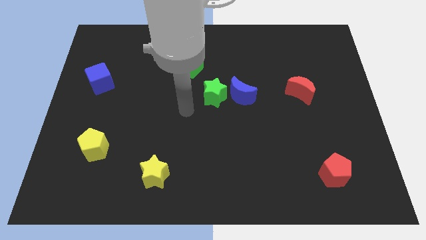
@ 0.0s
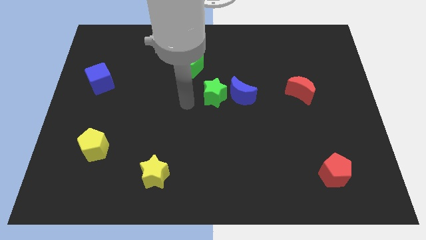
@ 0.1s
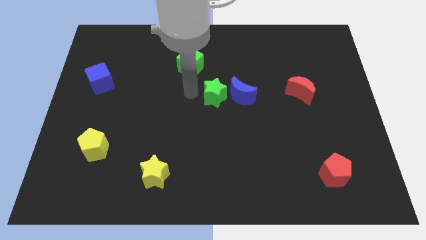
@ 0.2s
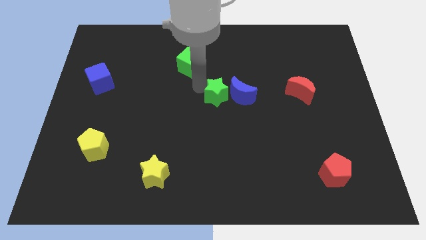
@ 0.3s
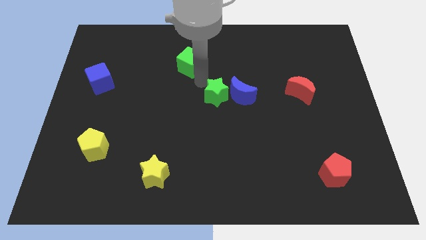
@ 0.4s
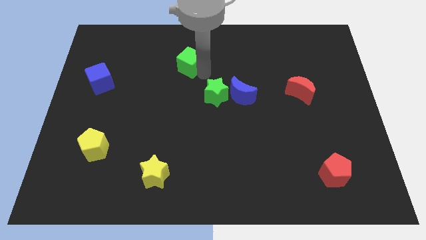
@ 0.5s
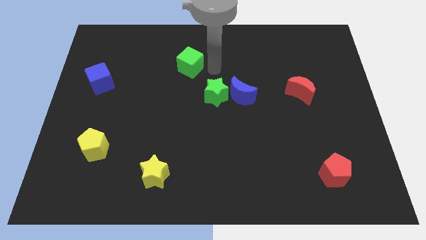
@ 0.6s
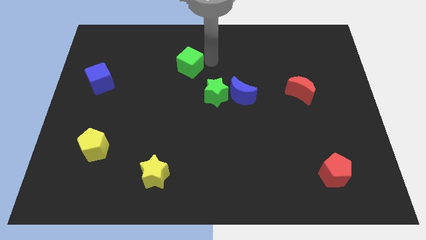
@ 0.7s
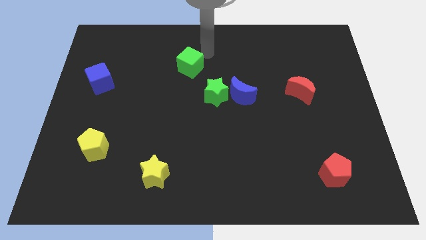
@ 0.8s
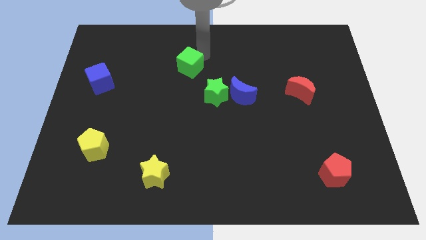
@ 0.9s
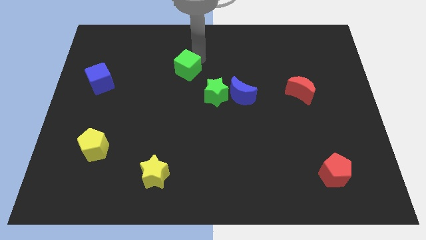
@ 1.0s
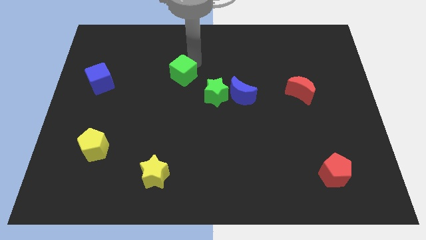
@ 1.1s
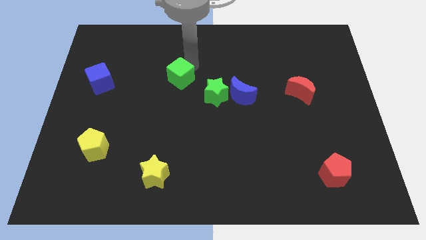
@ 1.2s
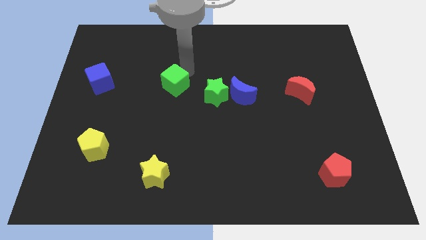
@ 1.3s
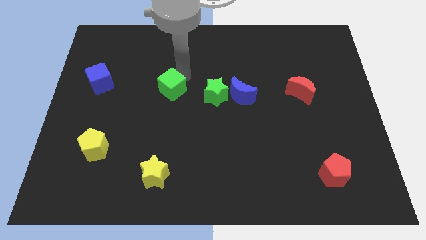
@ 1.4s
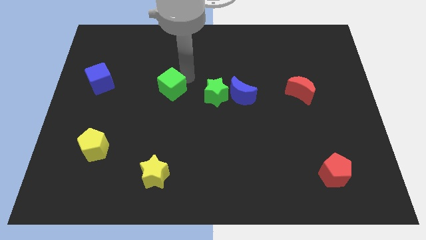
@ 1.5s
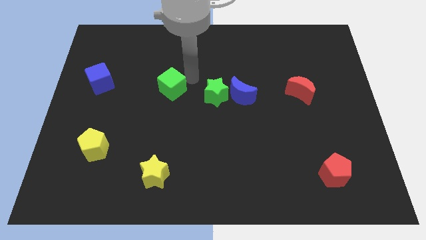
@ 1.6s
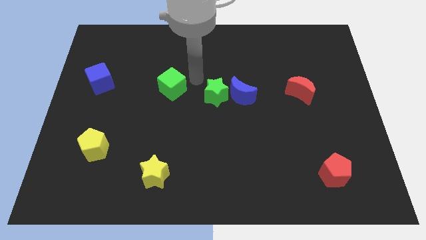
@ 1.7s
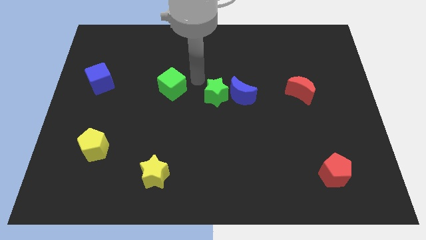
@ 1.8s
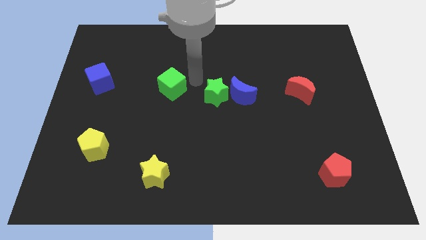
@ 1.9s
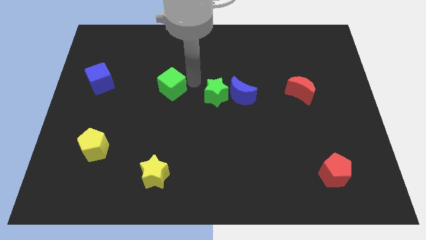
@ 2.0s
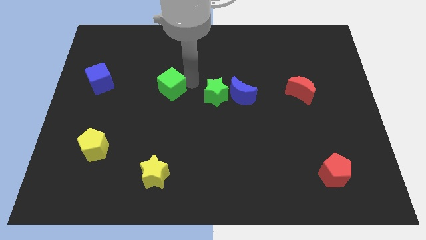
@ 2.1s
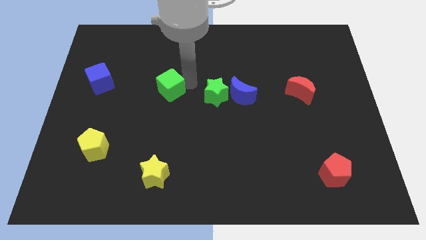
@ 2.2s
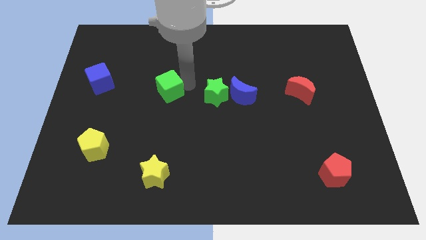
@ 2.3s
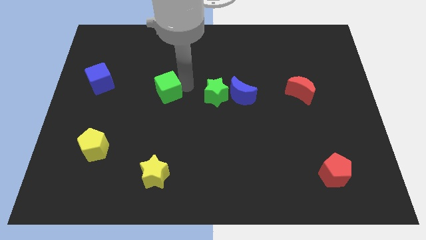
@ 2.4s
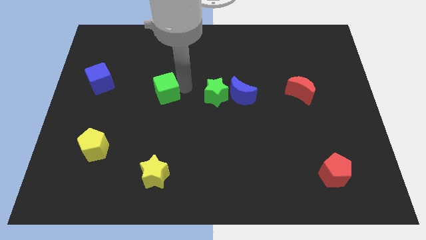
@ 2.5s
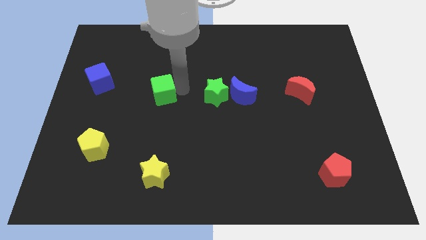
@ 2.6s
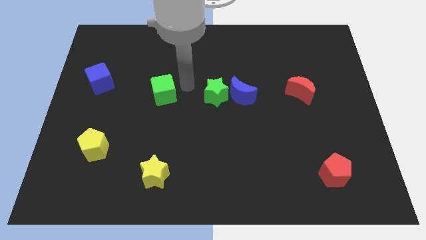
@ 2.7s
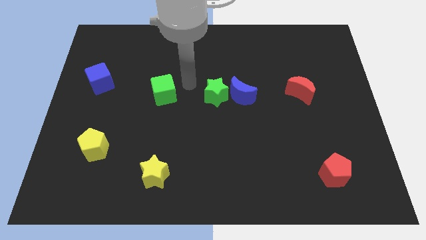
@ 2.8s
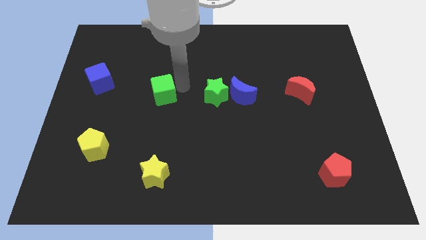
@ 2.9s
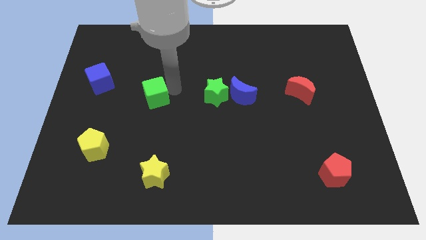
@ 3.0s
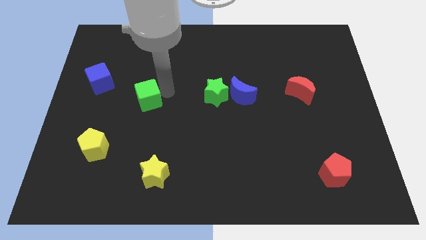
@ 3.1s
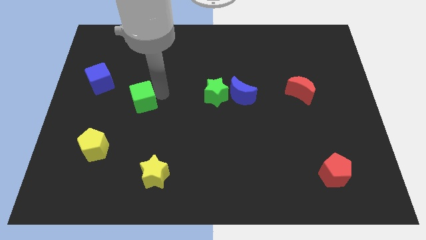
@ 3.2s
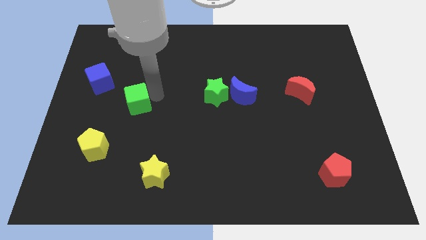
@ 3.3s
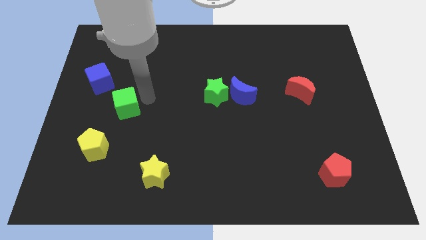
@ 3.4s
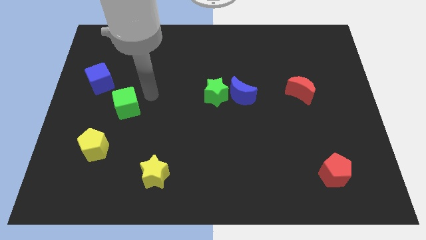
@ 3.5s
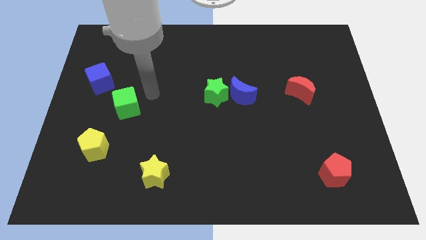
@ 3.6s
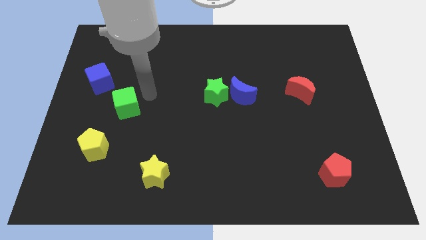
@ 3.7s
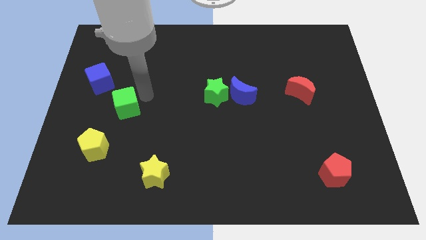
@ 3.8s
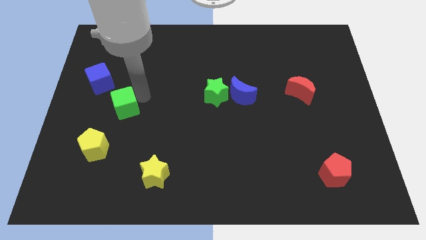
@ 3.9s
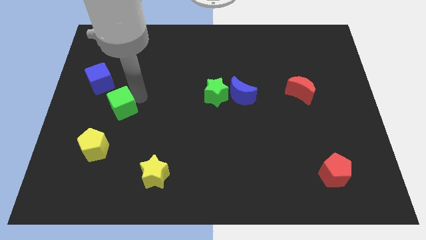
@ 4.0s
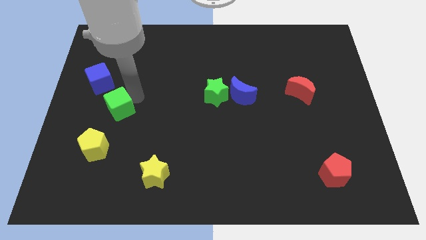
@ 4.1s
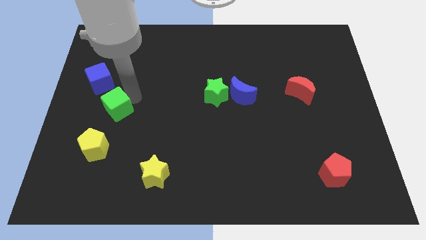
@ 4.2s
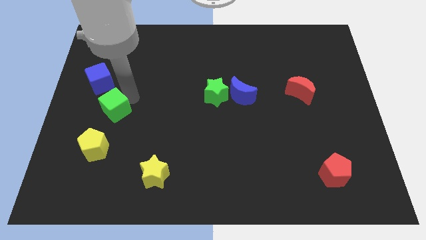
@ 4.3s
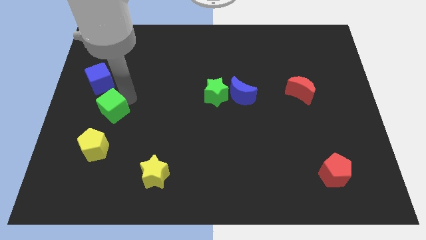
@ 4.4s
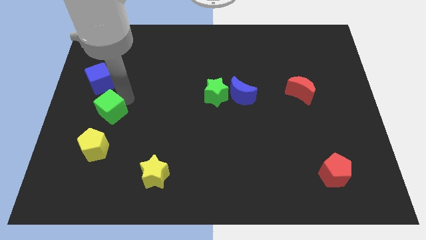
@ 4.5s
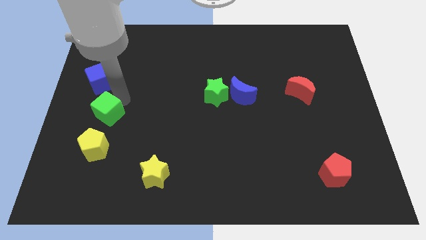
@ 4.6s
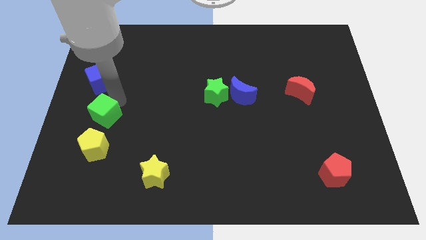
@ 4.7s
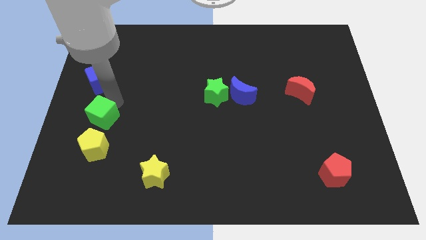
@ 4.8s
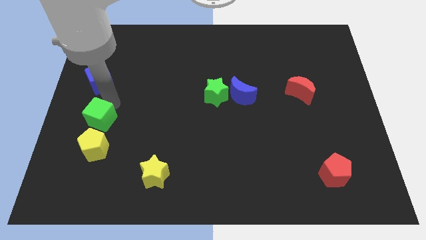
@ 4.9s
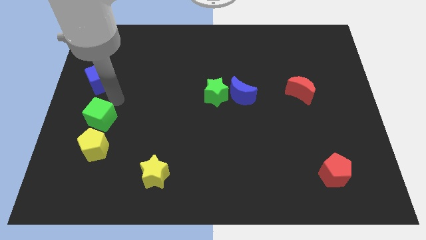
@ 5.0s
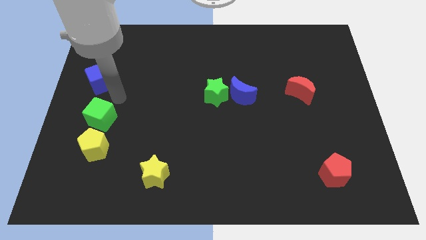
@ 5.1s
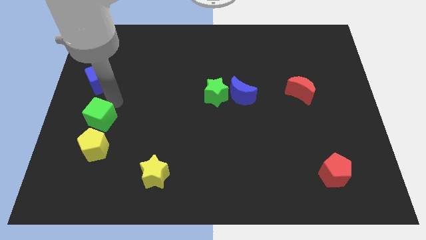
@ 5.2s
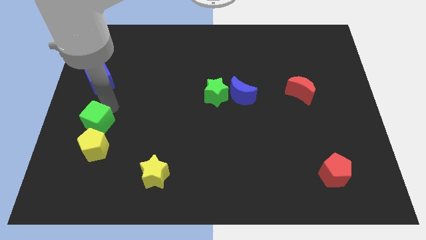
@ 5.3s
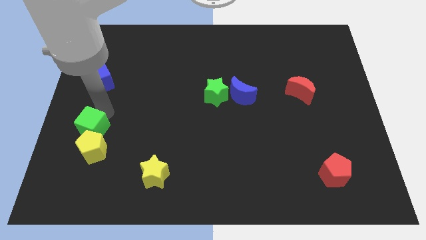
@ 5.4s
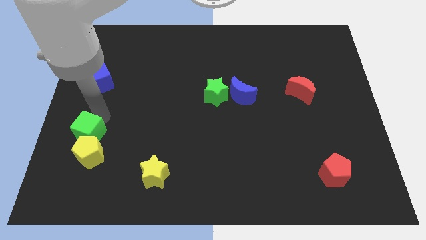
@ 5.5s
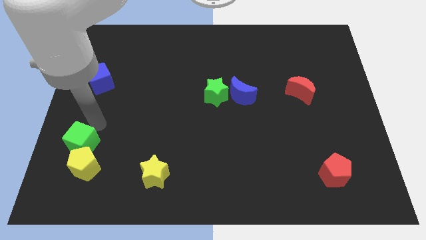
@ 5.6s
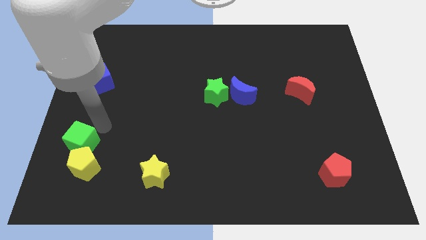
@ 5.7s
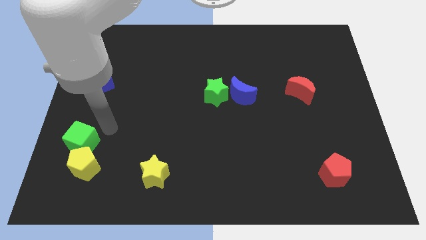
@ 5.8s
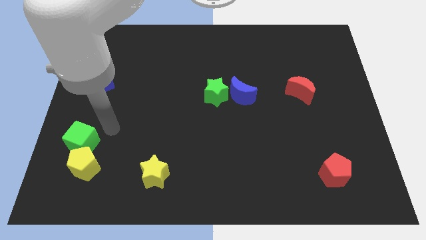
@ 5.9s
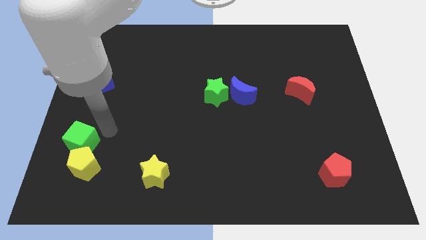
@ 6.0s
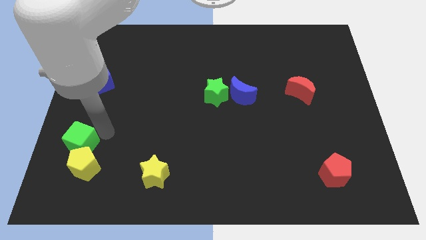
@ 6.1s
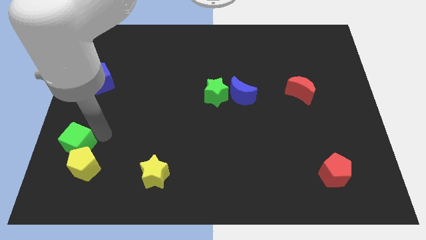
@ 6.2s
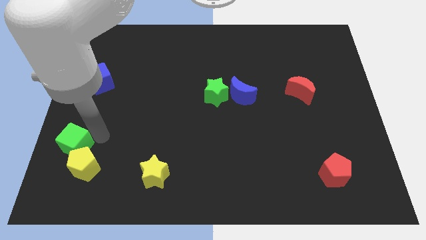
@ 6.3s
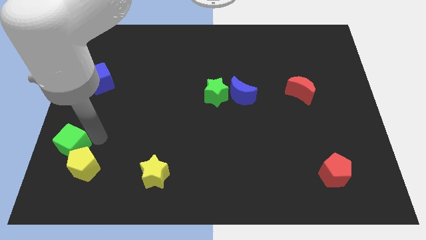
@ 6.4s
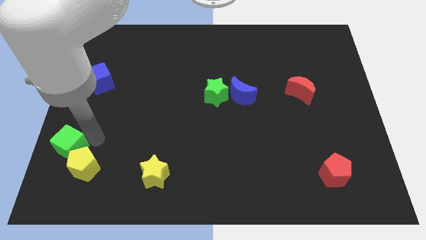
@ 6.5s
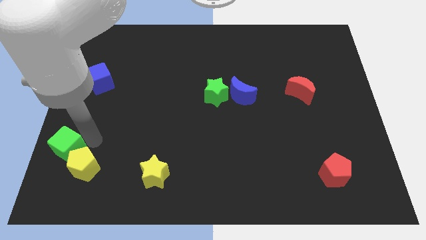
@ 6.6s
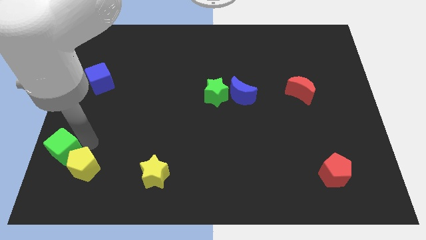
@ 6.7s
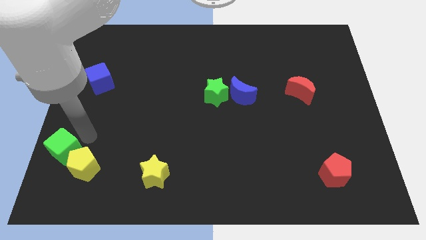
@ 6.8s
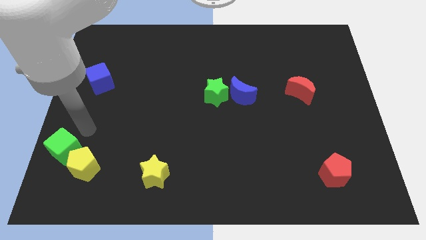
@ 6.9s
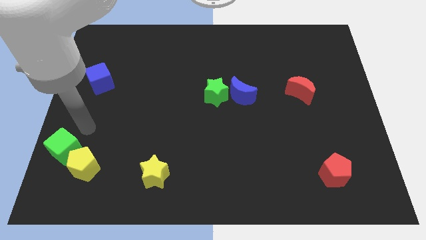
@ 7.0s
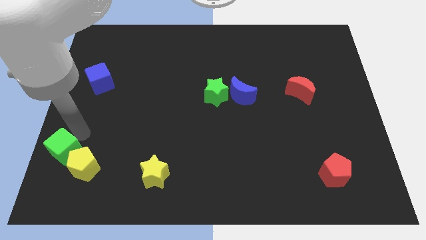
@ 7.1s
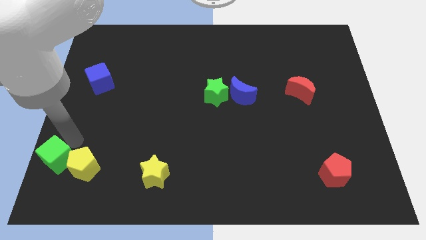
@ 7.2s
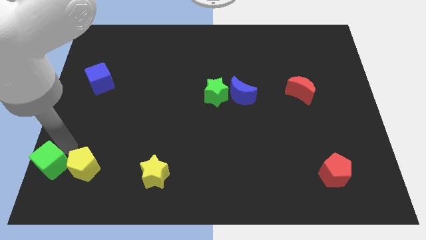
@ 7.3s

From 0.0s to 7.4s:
put the green cube to the bottom left
